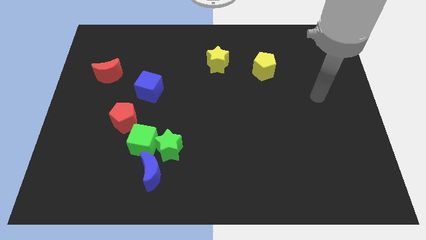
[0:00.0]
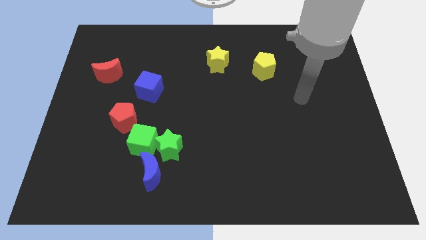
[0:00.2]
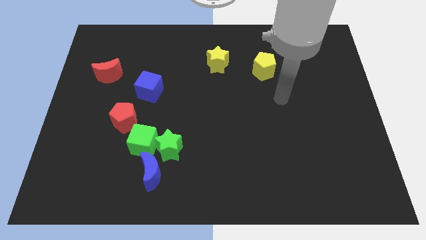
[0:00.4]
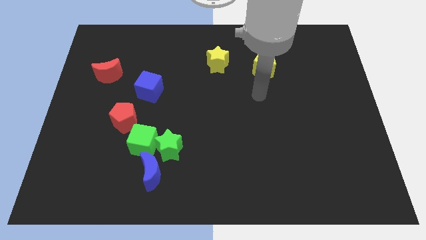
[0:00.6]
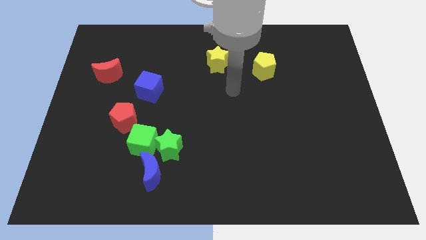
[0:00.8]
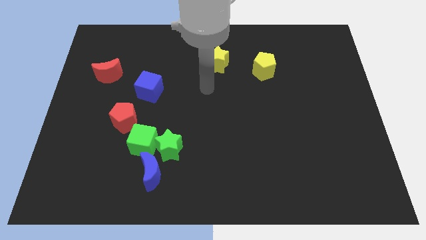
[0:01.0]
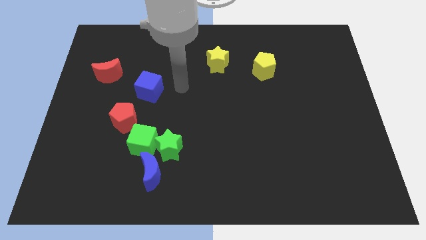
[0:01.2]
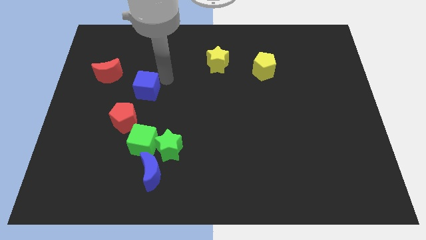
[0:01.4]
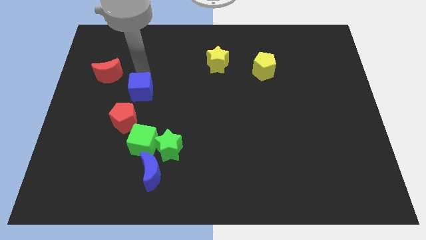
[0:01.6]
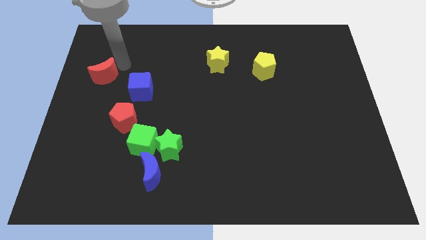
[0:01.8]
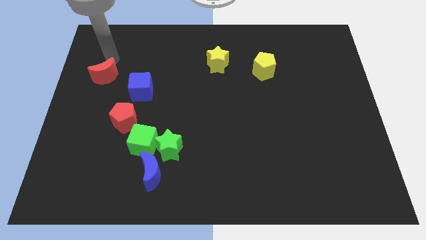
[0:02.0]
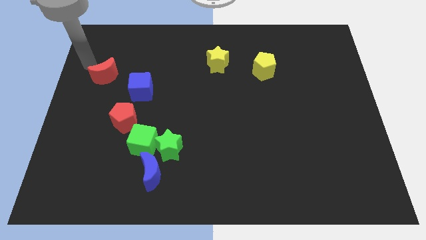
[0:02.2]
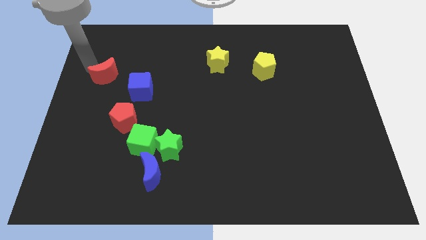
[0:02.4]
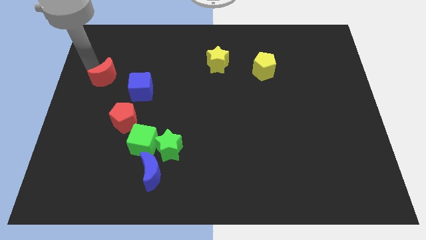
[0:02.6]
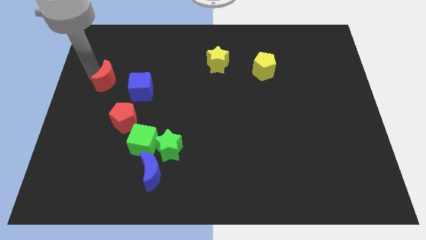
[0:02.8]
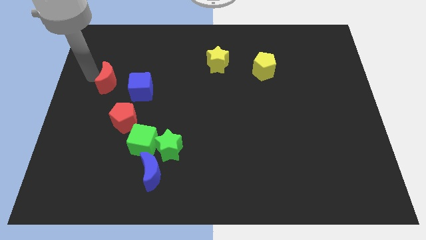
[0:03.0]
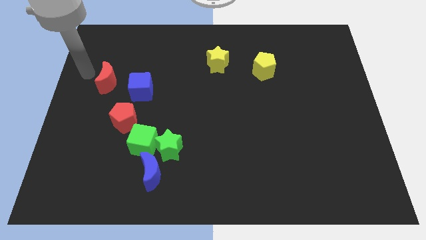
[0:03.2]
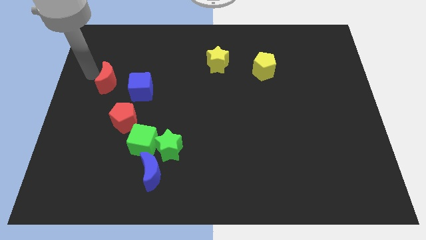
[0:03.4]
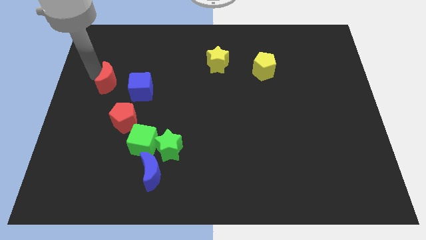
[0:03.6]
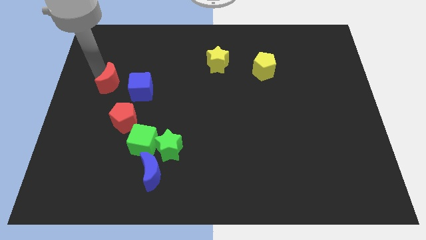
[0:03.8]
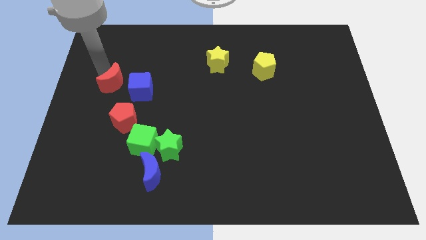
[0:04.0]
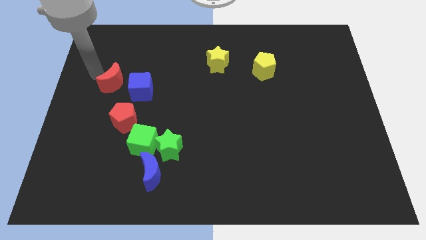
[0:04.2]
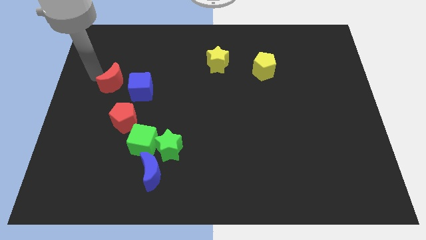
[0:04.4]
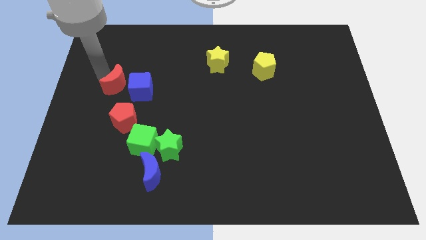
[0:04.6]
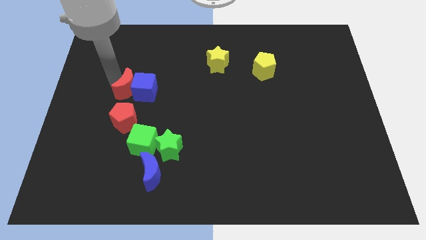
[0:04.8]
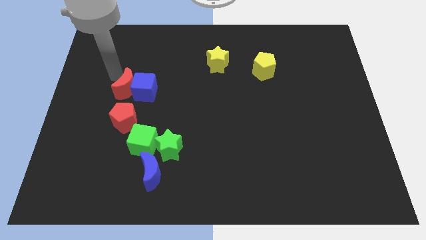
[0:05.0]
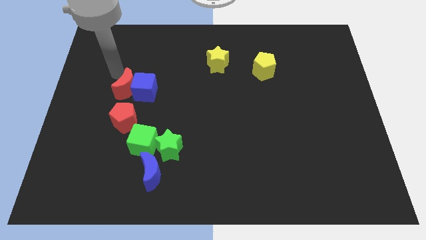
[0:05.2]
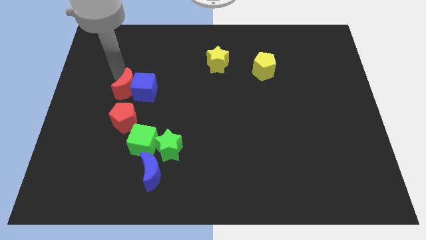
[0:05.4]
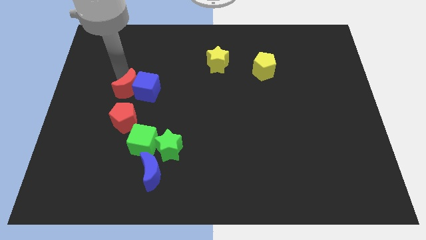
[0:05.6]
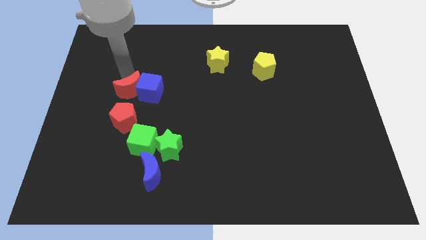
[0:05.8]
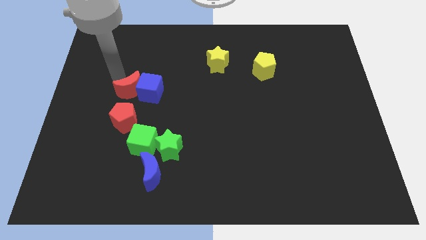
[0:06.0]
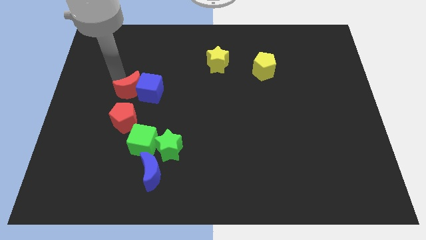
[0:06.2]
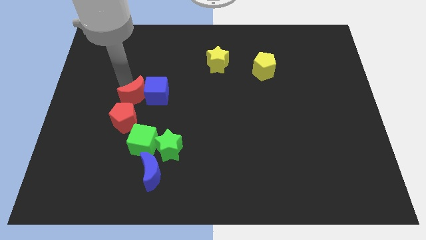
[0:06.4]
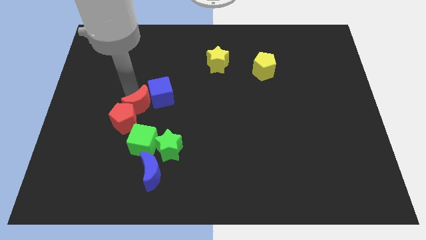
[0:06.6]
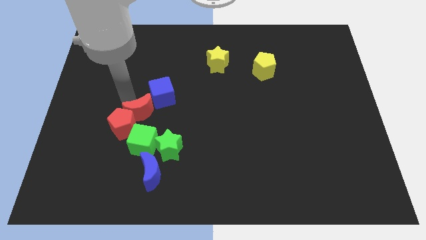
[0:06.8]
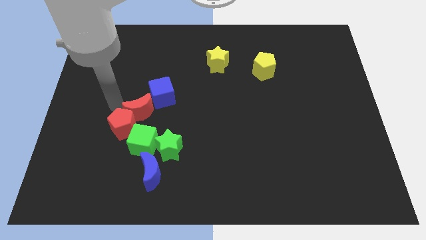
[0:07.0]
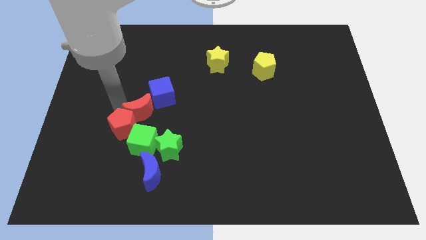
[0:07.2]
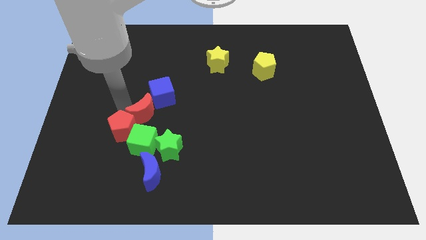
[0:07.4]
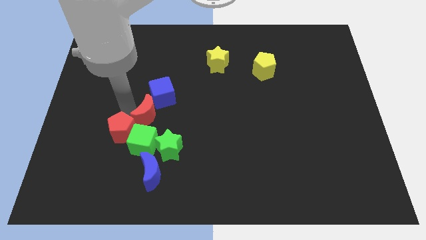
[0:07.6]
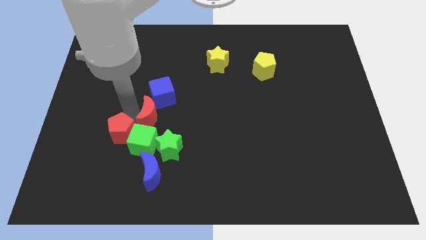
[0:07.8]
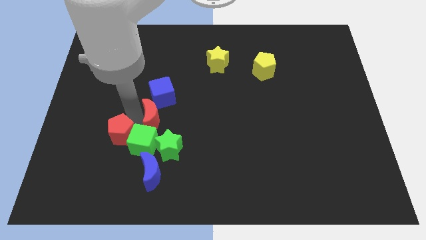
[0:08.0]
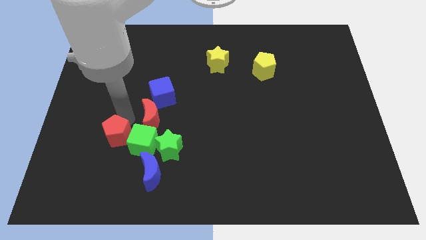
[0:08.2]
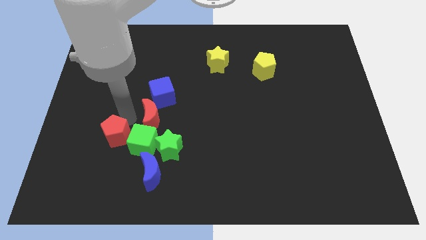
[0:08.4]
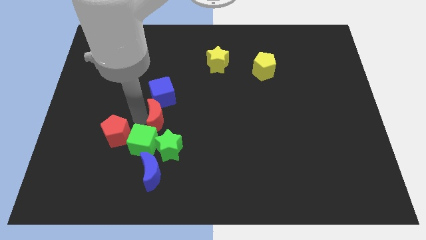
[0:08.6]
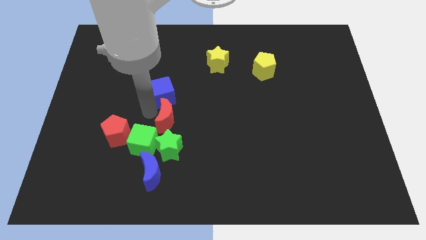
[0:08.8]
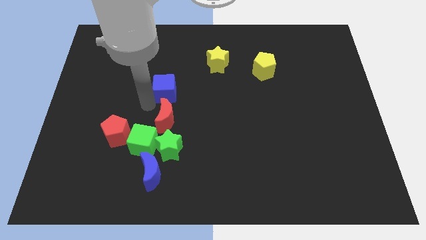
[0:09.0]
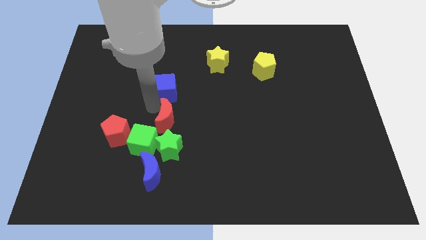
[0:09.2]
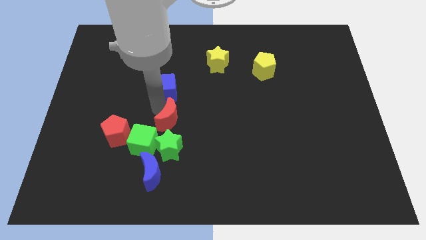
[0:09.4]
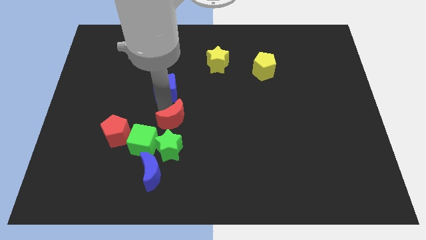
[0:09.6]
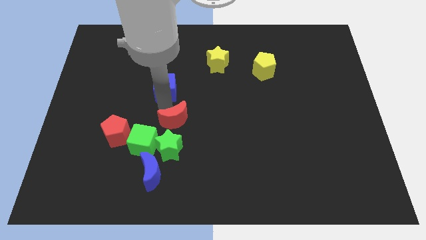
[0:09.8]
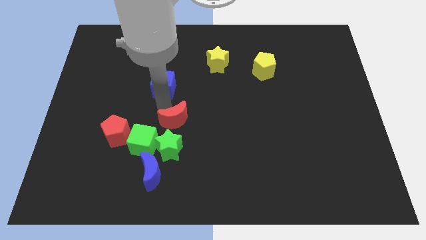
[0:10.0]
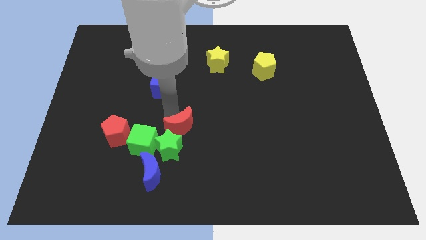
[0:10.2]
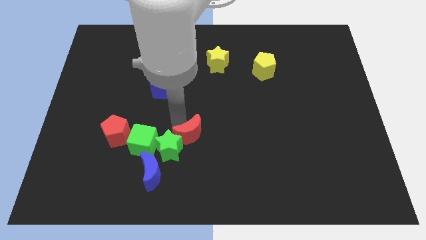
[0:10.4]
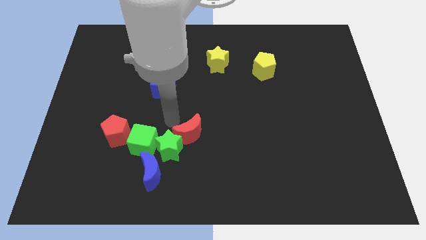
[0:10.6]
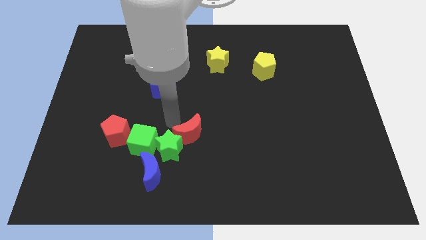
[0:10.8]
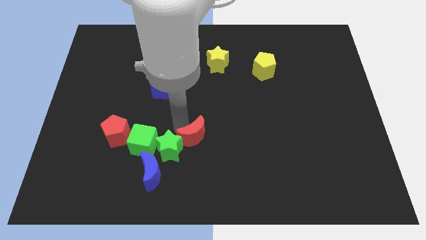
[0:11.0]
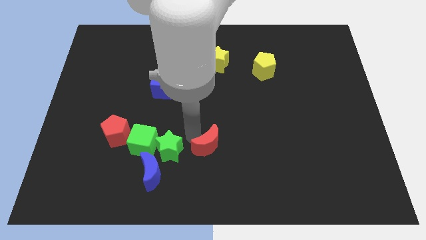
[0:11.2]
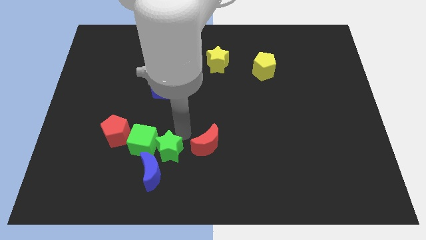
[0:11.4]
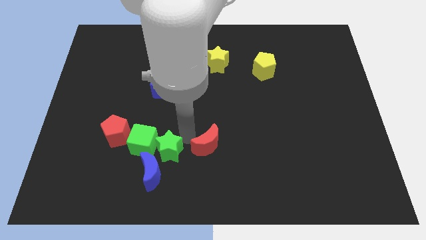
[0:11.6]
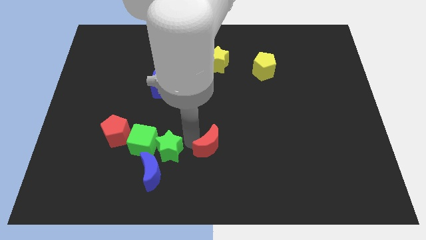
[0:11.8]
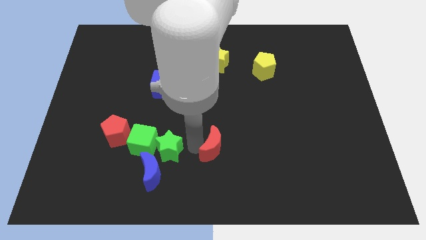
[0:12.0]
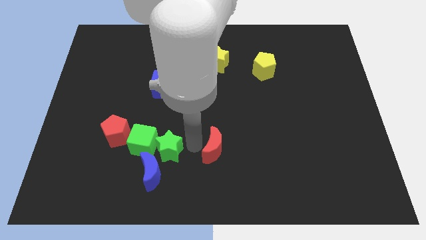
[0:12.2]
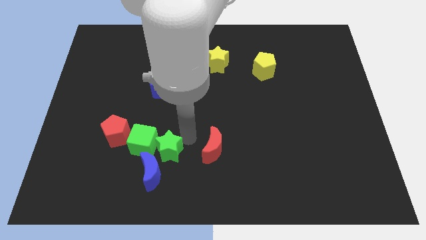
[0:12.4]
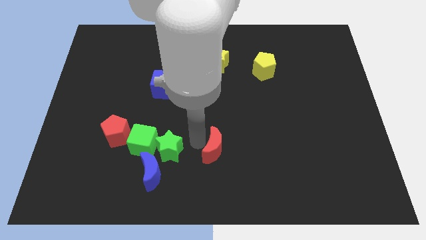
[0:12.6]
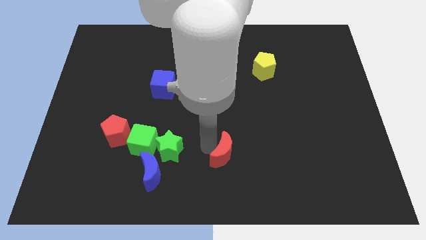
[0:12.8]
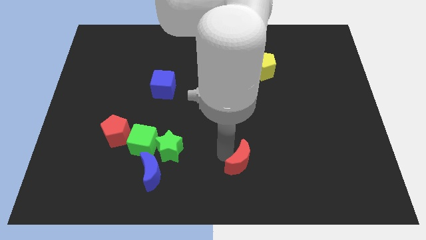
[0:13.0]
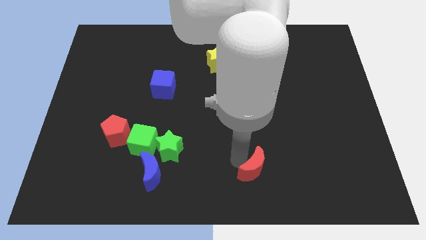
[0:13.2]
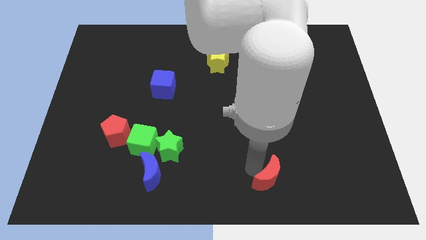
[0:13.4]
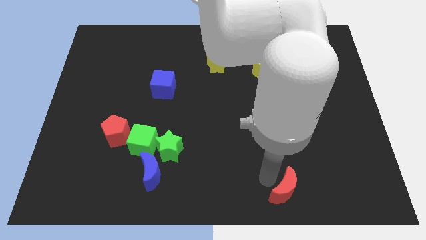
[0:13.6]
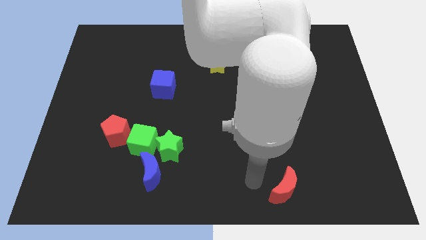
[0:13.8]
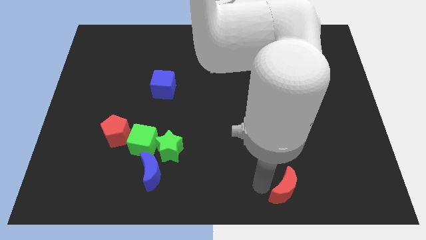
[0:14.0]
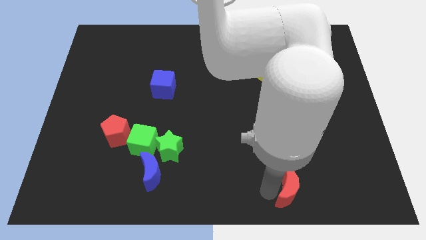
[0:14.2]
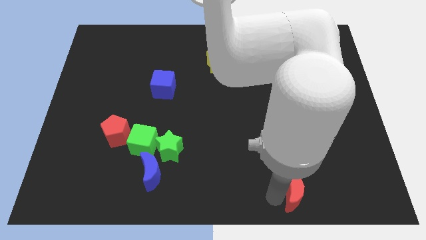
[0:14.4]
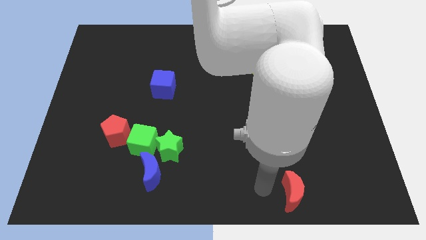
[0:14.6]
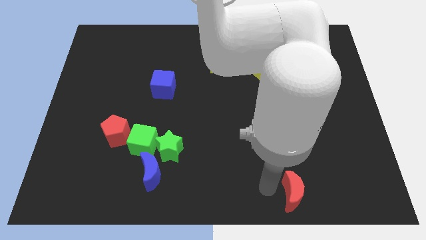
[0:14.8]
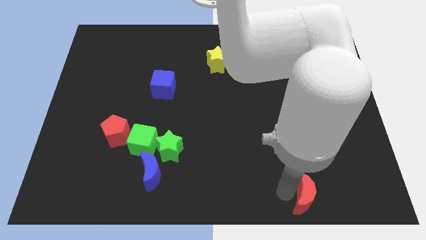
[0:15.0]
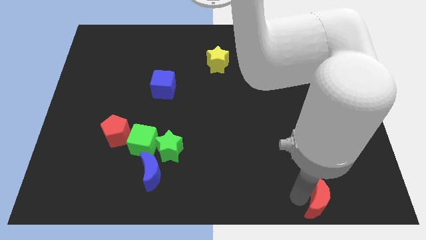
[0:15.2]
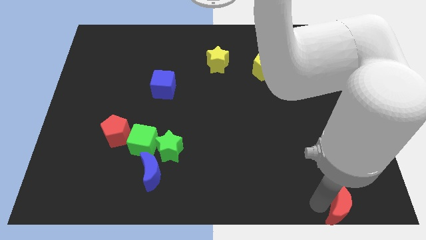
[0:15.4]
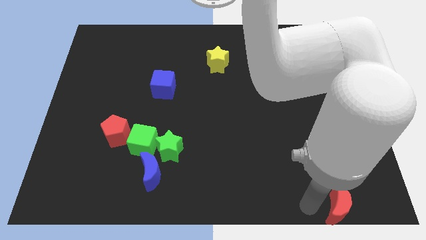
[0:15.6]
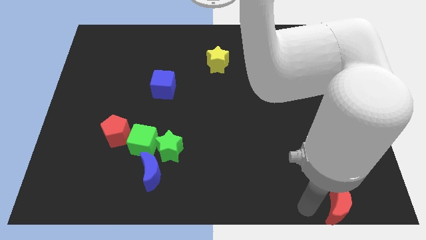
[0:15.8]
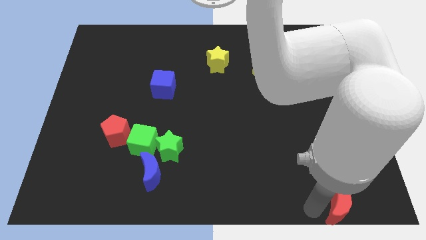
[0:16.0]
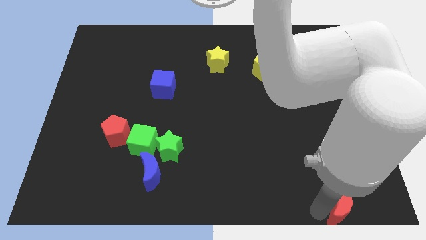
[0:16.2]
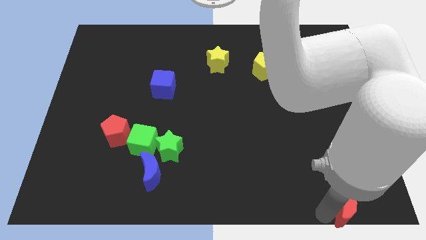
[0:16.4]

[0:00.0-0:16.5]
slide the red moon to the bottom right corner
